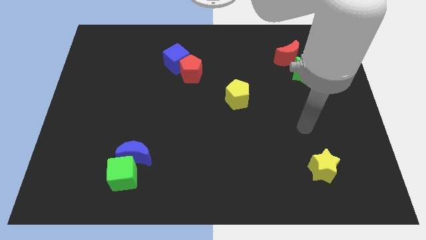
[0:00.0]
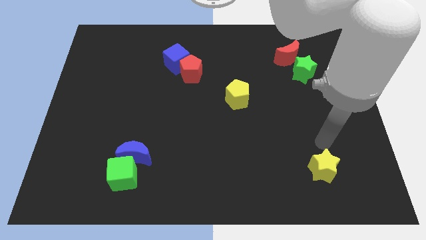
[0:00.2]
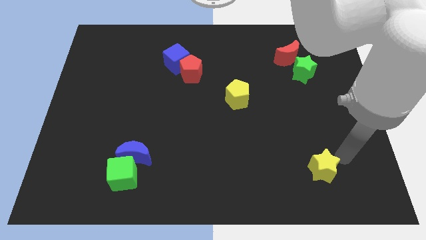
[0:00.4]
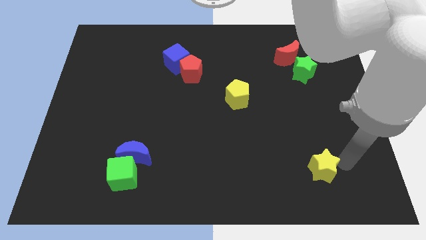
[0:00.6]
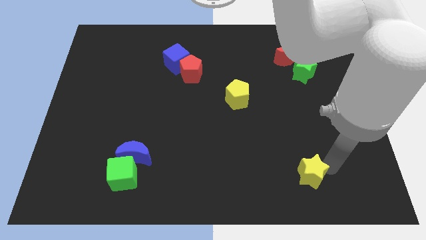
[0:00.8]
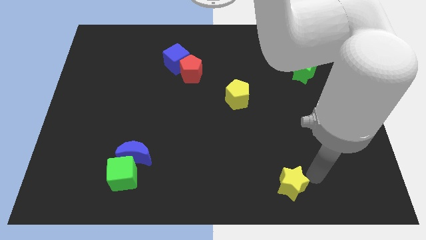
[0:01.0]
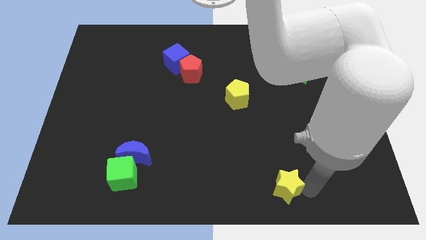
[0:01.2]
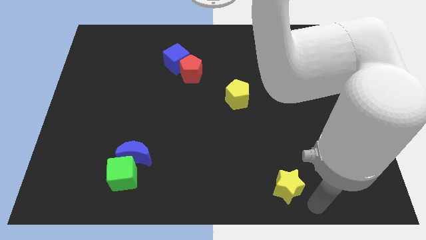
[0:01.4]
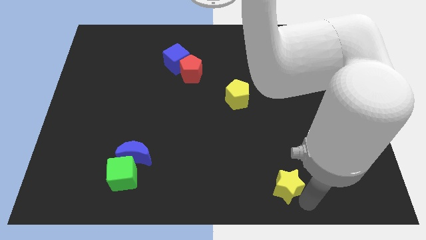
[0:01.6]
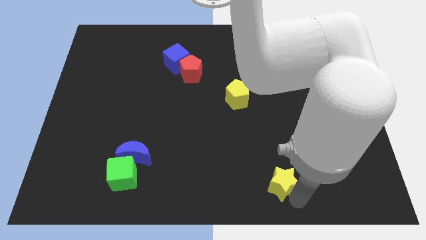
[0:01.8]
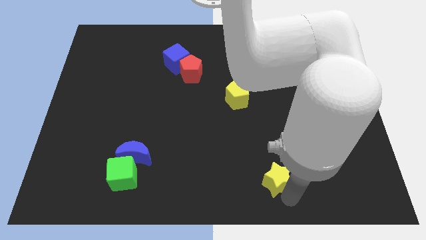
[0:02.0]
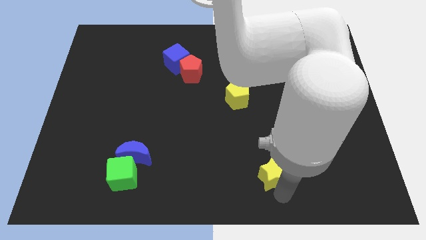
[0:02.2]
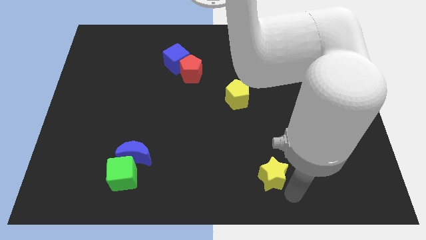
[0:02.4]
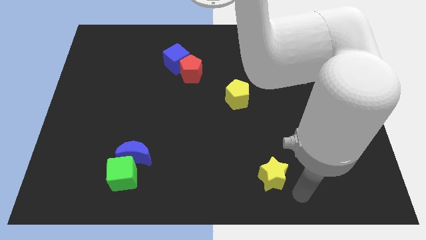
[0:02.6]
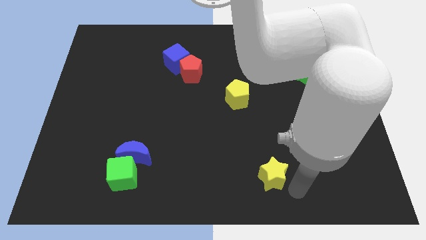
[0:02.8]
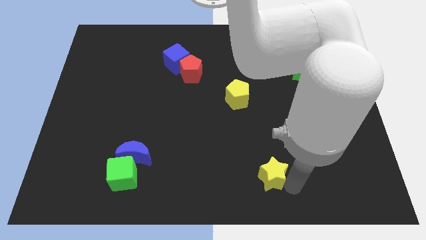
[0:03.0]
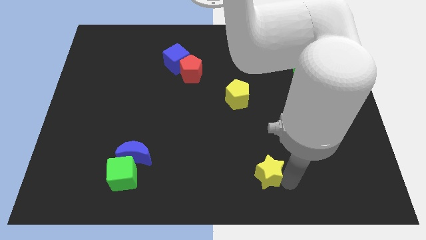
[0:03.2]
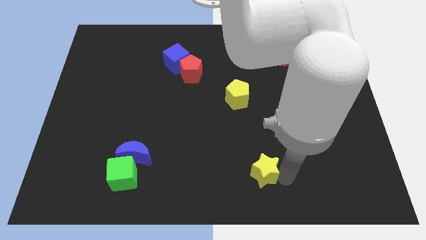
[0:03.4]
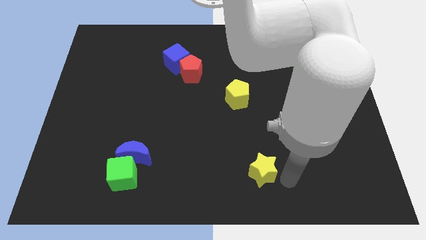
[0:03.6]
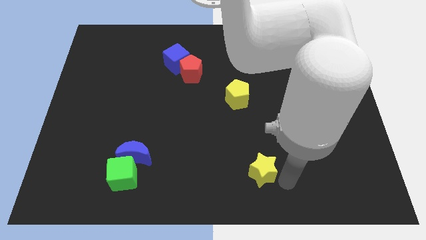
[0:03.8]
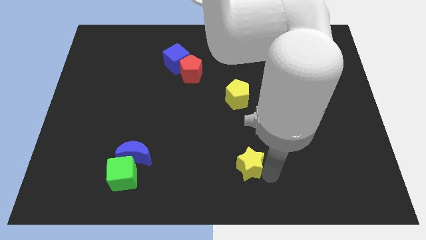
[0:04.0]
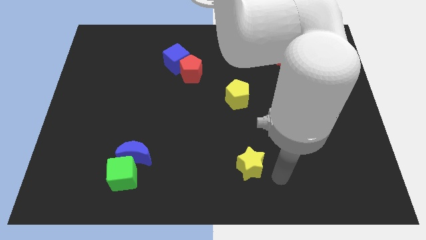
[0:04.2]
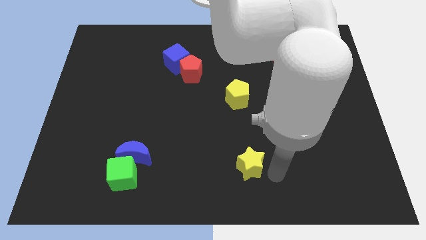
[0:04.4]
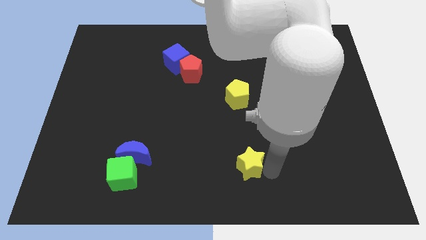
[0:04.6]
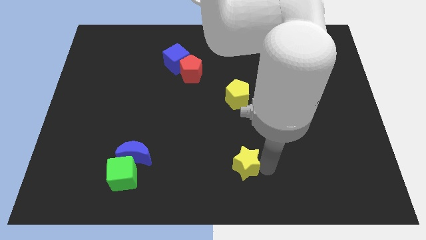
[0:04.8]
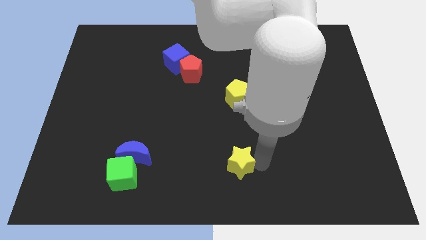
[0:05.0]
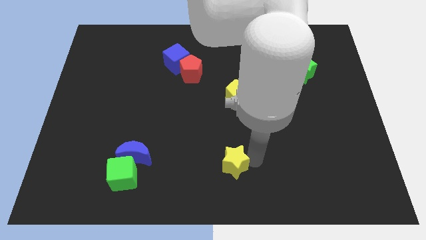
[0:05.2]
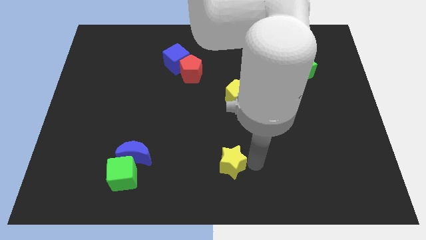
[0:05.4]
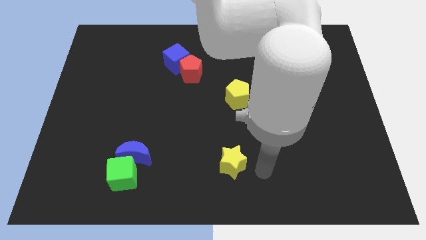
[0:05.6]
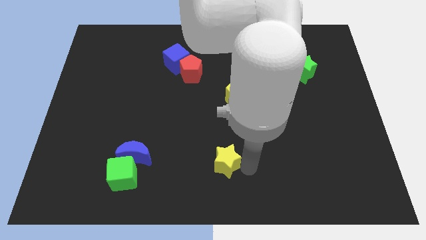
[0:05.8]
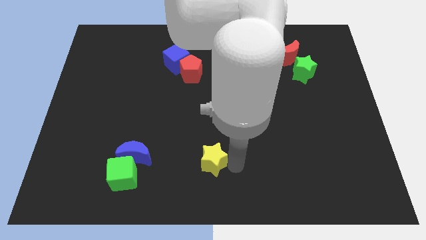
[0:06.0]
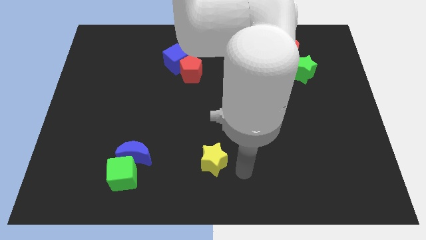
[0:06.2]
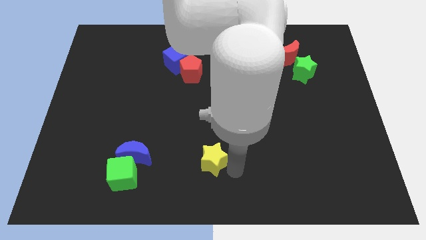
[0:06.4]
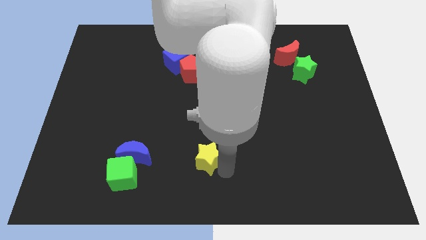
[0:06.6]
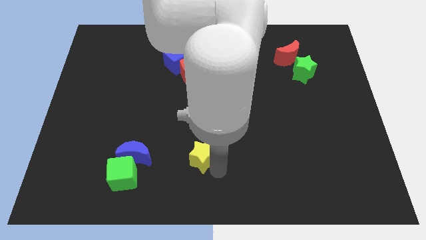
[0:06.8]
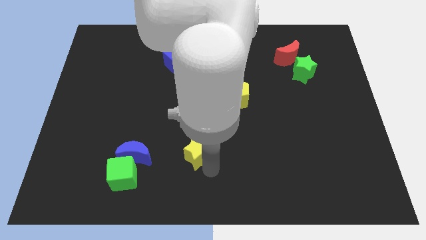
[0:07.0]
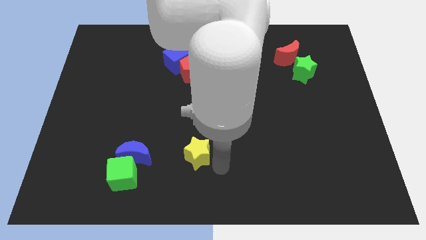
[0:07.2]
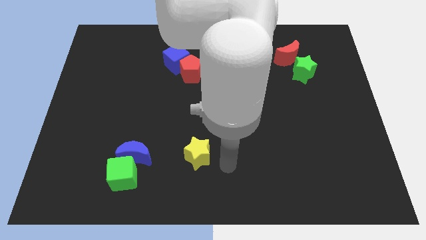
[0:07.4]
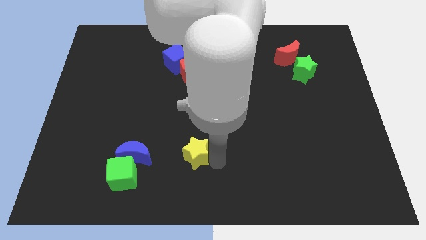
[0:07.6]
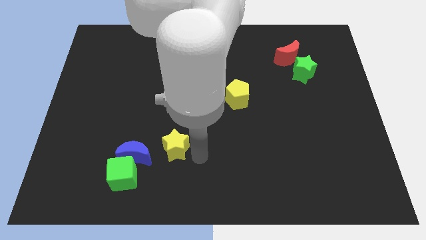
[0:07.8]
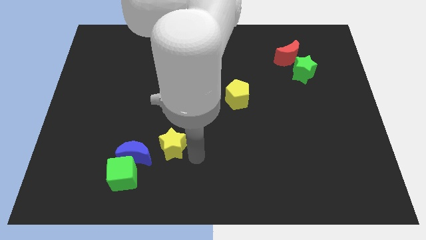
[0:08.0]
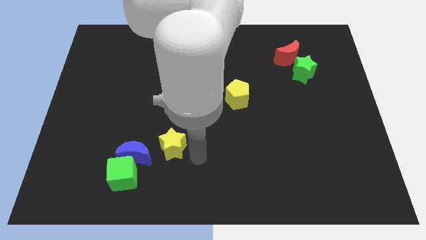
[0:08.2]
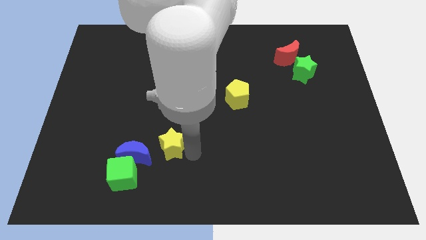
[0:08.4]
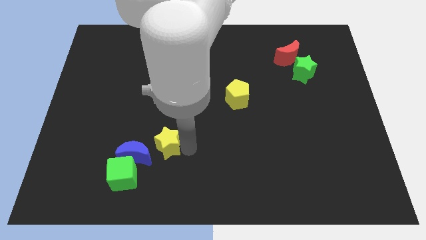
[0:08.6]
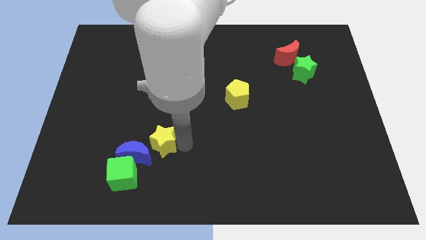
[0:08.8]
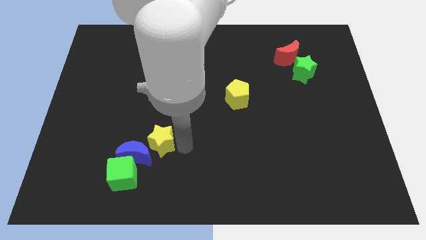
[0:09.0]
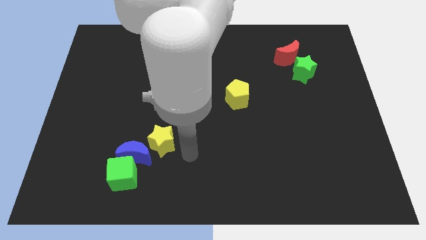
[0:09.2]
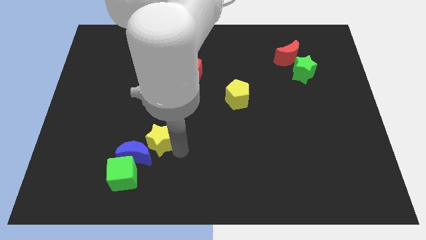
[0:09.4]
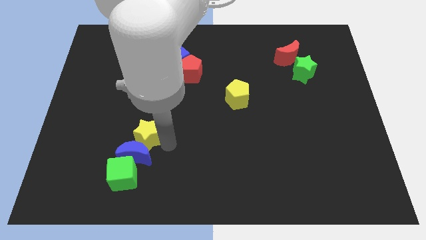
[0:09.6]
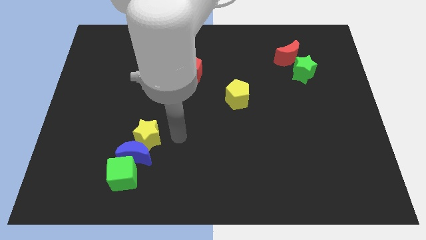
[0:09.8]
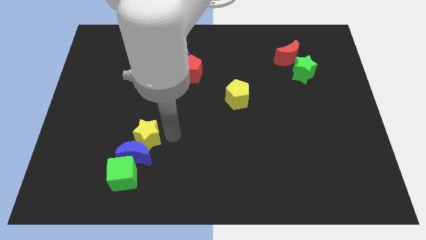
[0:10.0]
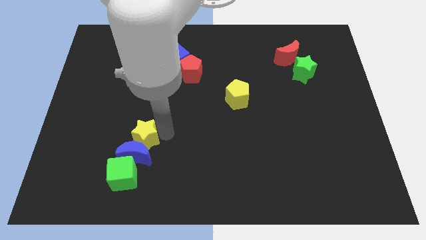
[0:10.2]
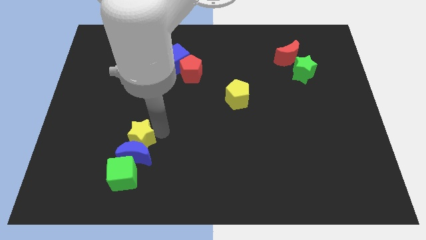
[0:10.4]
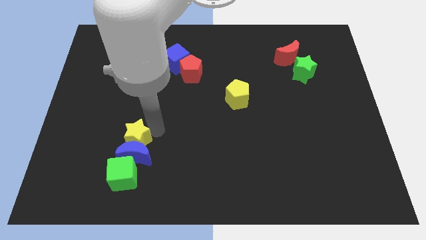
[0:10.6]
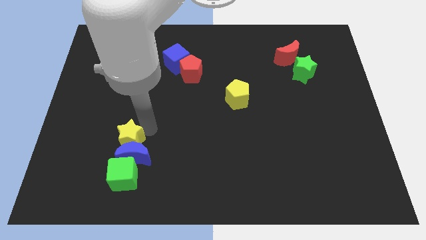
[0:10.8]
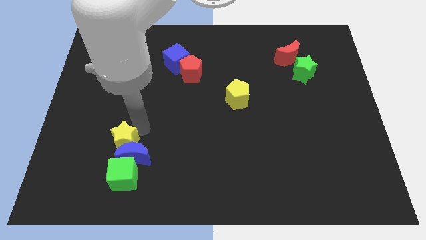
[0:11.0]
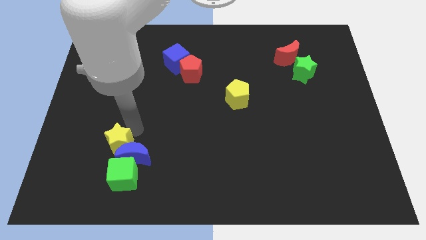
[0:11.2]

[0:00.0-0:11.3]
slide the yellow star to the top left of the green cube

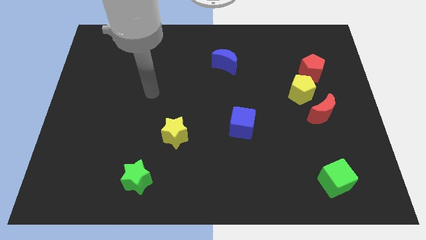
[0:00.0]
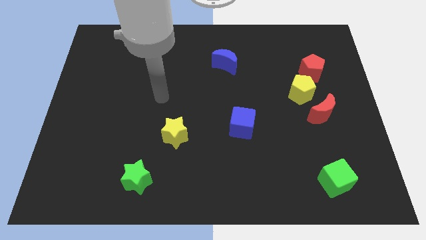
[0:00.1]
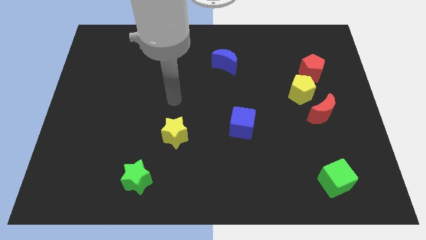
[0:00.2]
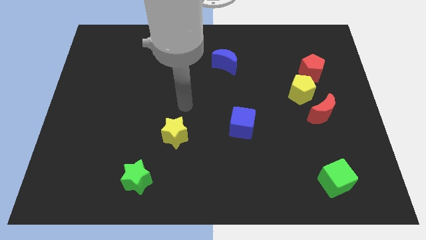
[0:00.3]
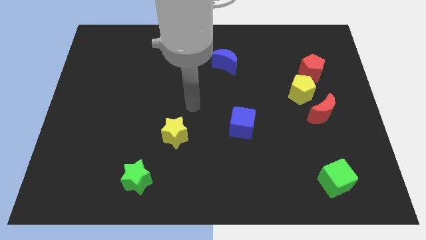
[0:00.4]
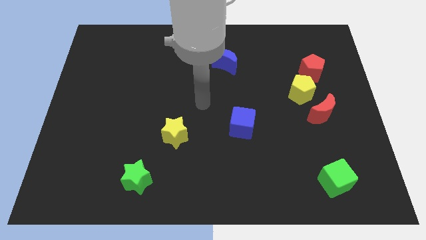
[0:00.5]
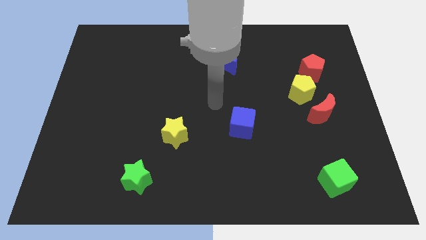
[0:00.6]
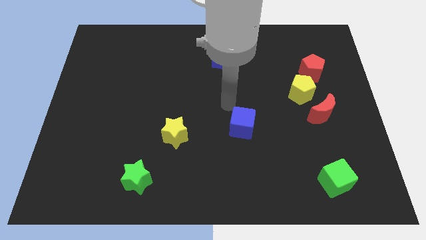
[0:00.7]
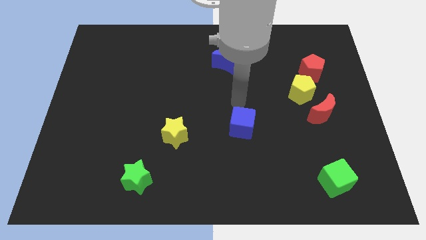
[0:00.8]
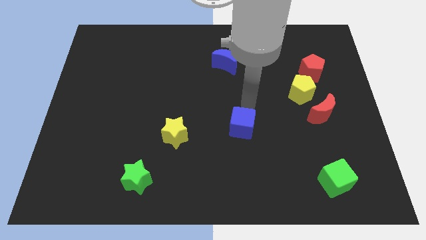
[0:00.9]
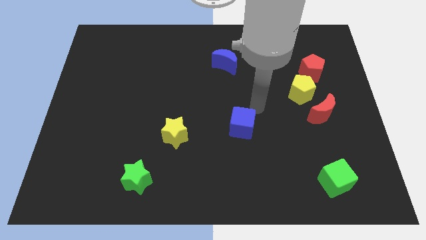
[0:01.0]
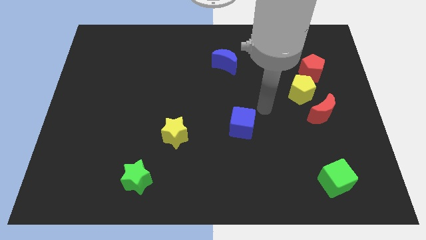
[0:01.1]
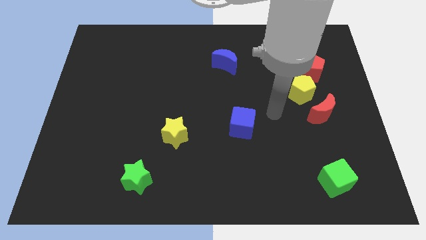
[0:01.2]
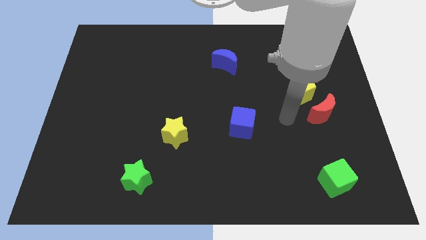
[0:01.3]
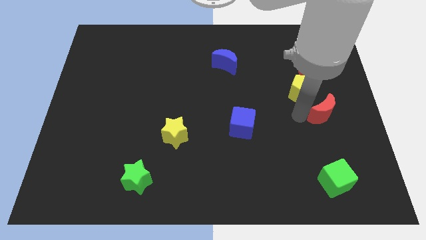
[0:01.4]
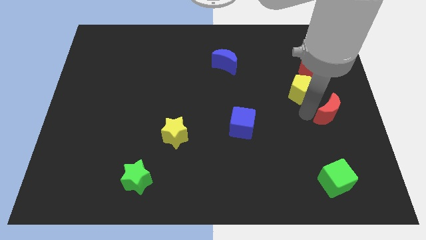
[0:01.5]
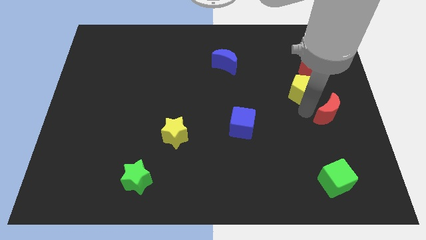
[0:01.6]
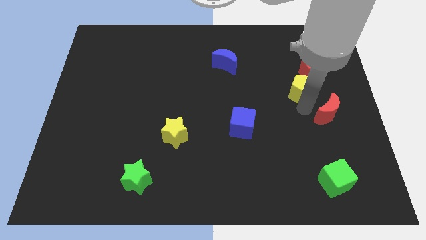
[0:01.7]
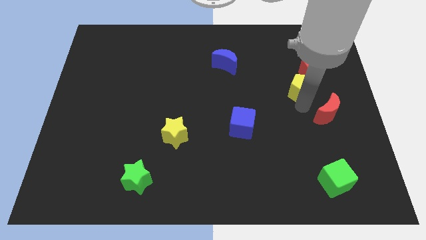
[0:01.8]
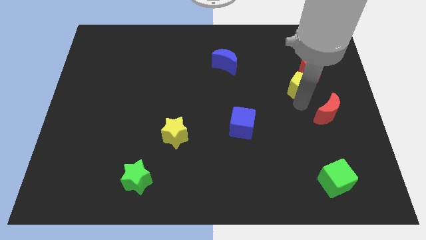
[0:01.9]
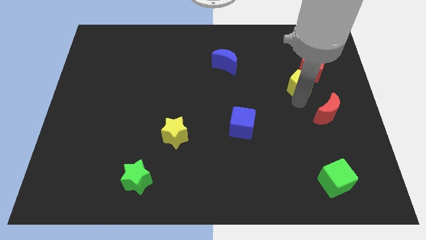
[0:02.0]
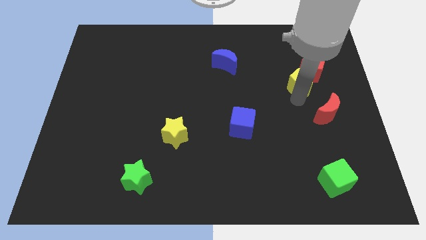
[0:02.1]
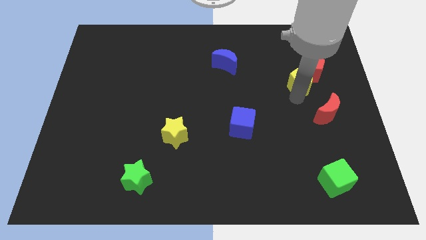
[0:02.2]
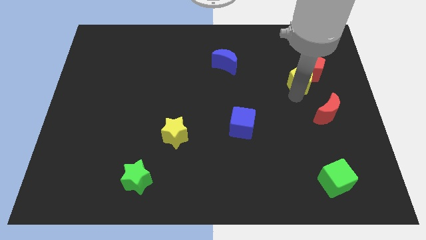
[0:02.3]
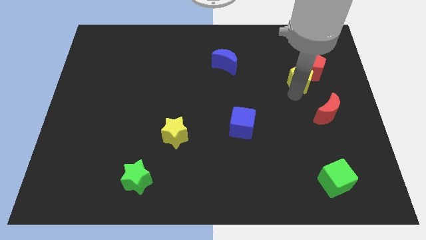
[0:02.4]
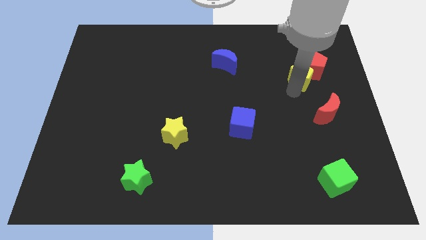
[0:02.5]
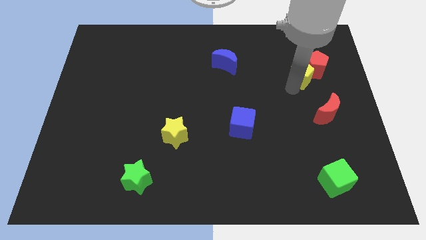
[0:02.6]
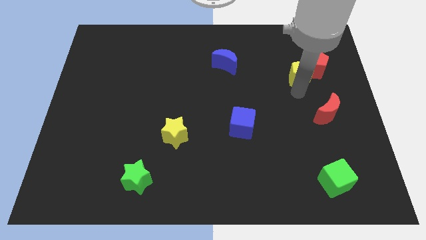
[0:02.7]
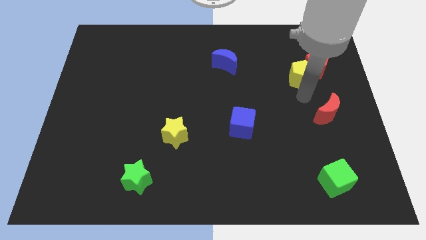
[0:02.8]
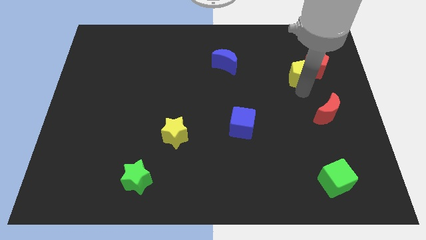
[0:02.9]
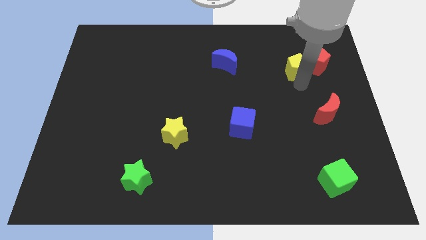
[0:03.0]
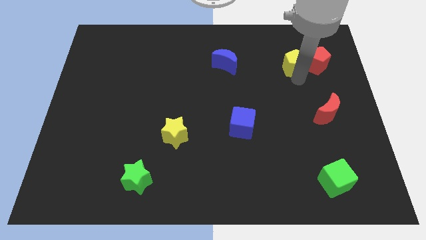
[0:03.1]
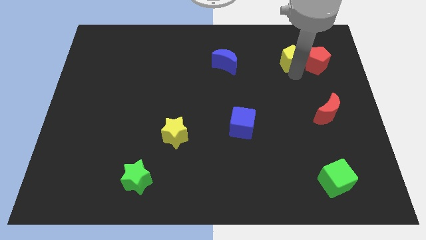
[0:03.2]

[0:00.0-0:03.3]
put the yellow pentagon to the top left side of the red pentagon
